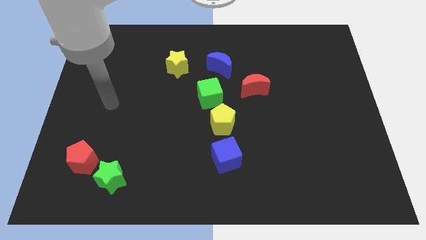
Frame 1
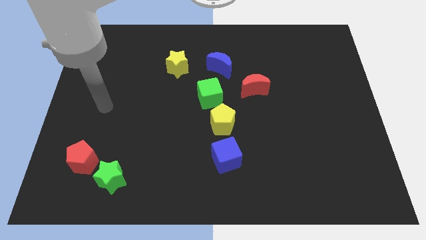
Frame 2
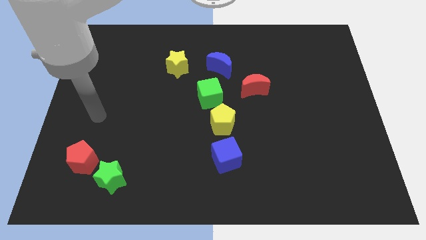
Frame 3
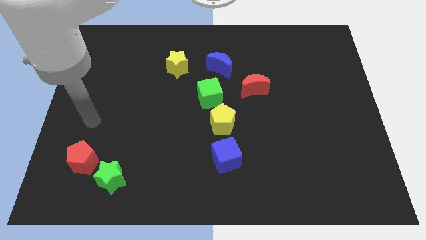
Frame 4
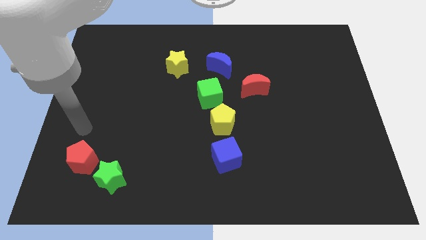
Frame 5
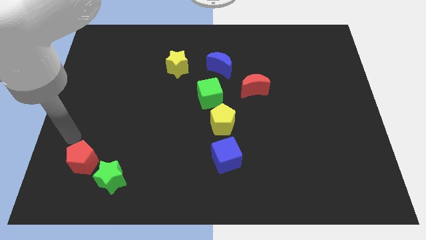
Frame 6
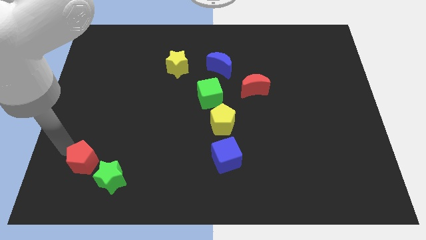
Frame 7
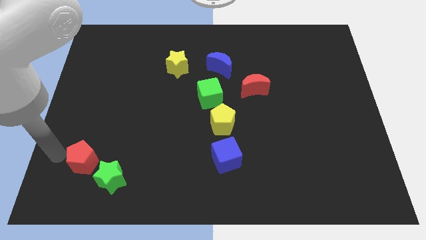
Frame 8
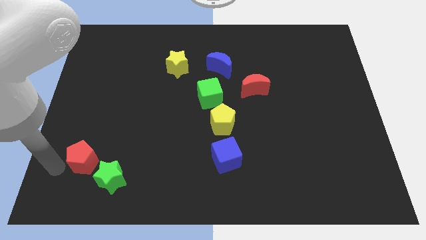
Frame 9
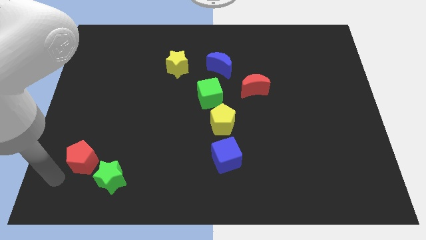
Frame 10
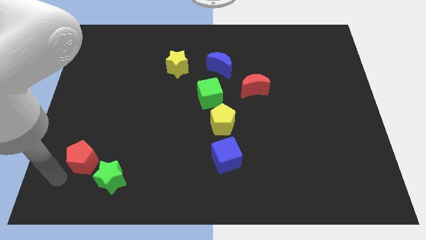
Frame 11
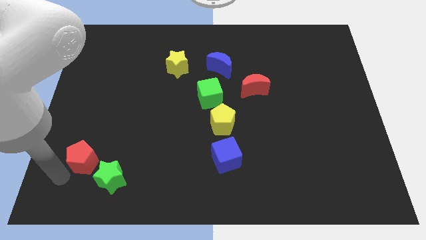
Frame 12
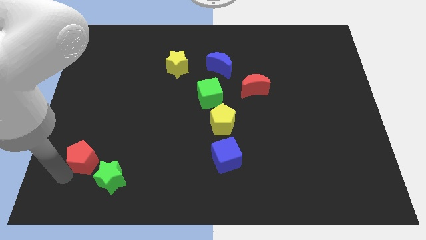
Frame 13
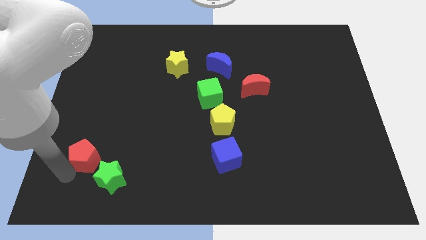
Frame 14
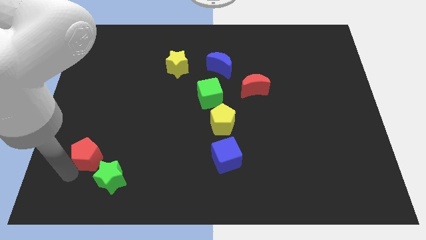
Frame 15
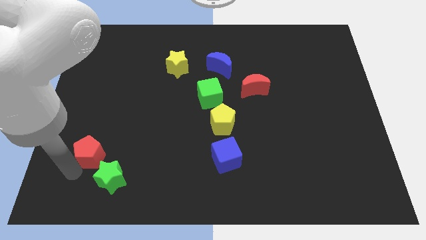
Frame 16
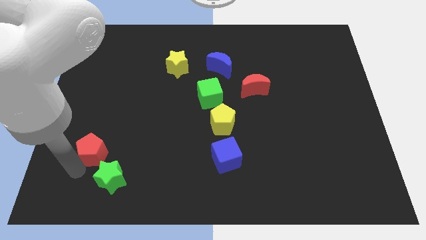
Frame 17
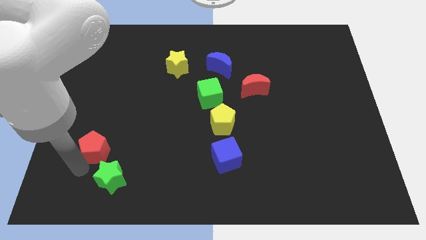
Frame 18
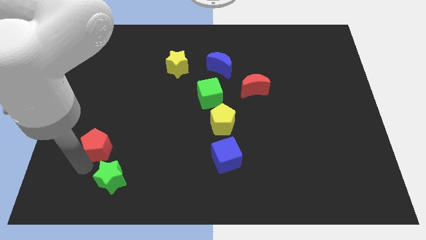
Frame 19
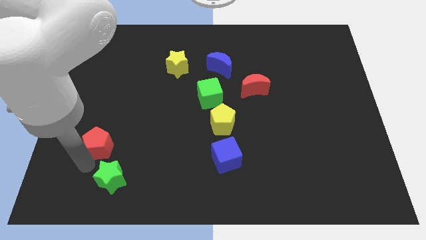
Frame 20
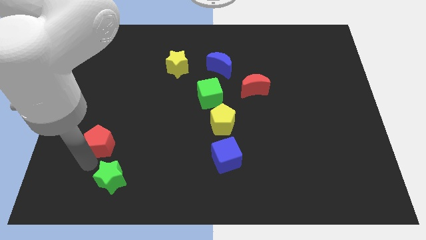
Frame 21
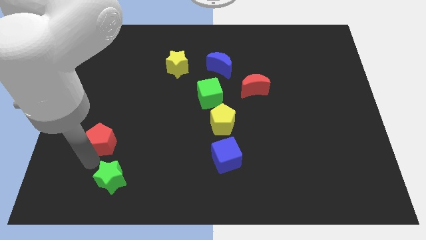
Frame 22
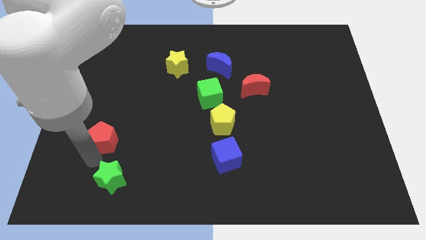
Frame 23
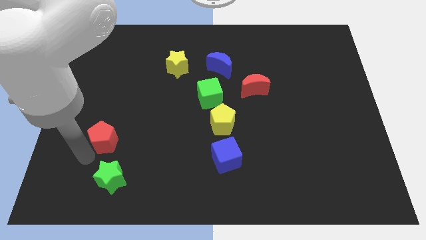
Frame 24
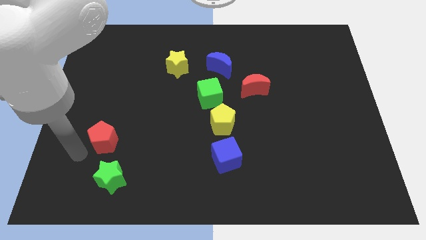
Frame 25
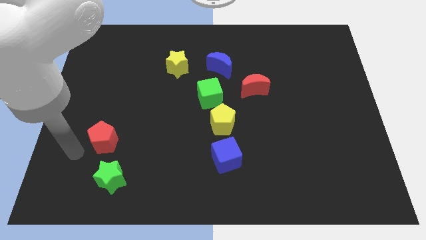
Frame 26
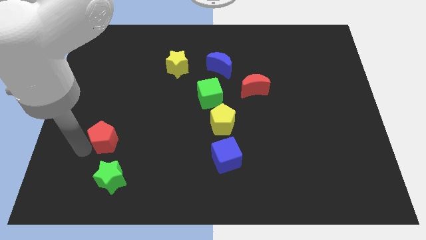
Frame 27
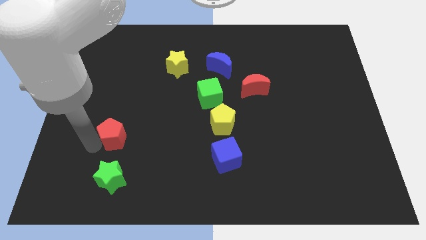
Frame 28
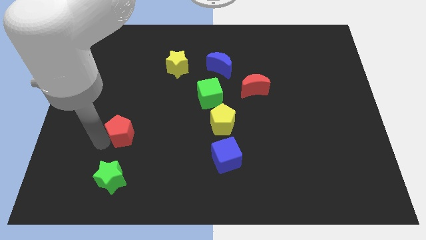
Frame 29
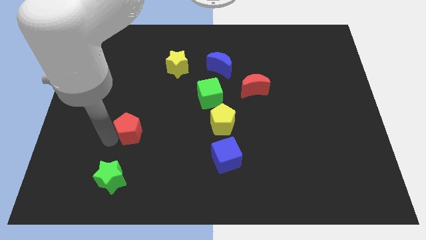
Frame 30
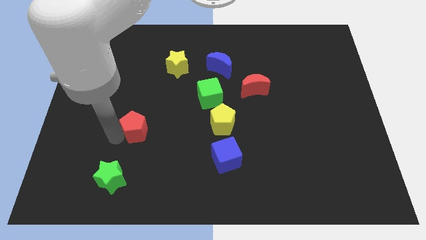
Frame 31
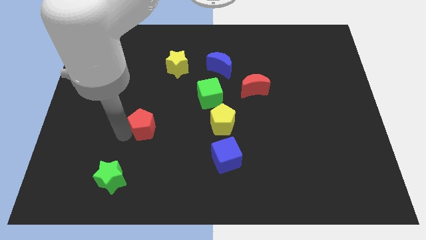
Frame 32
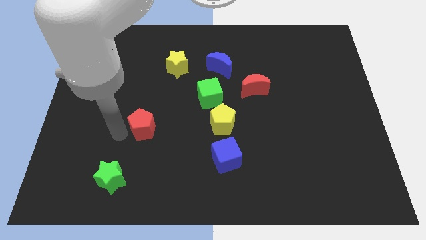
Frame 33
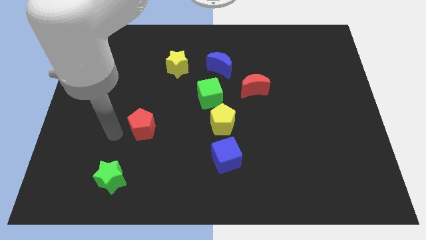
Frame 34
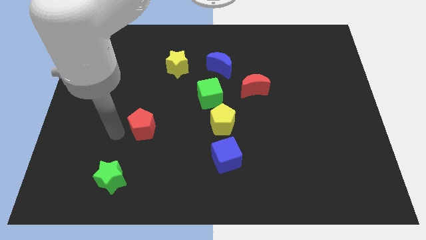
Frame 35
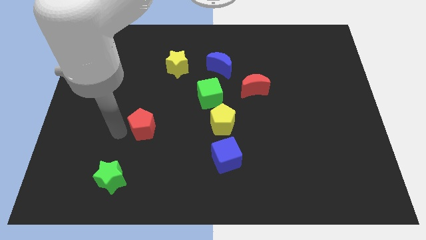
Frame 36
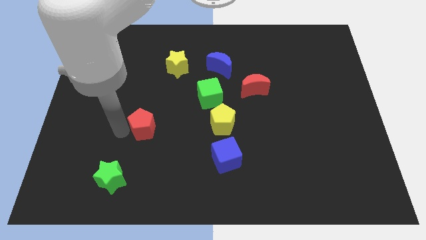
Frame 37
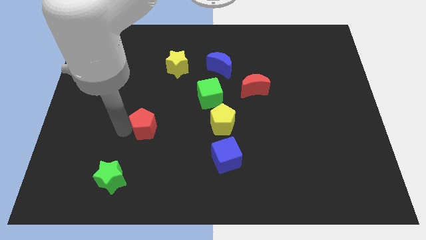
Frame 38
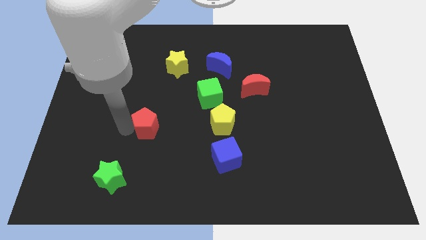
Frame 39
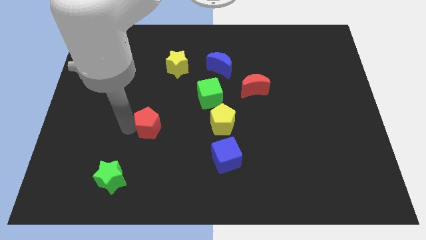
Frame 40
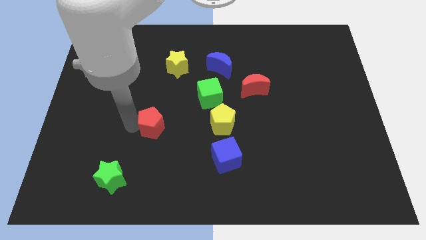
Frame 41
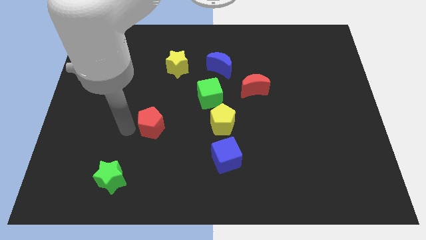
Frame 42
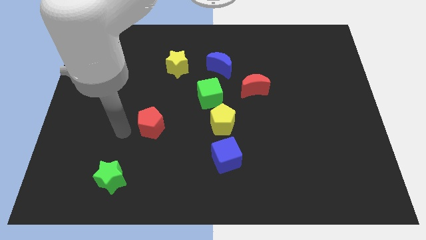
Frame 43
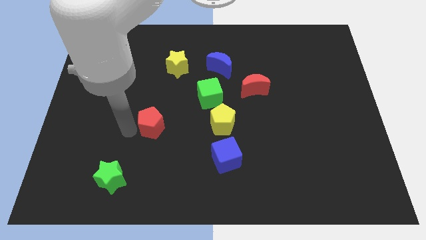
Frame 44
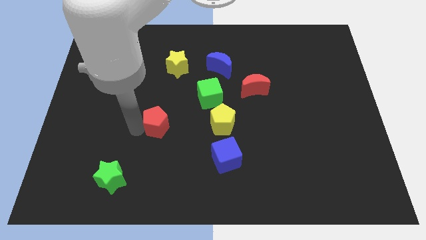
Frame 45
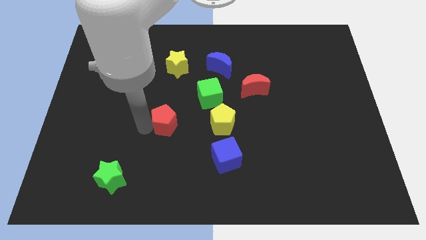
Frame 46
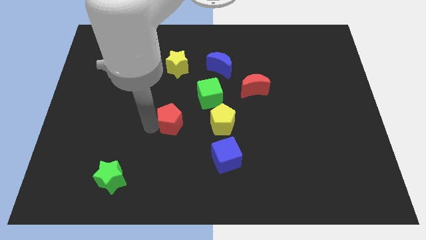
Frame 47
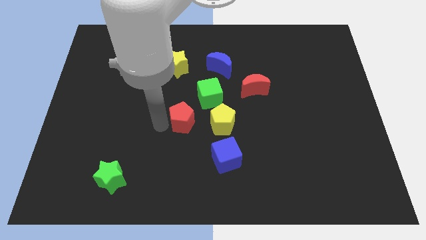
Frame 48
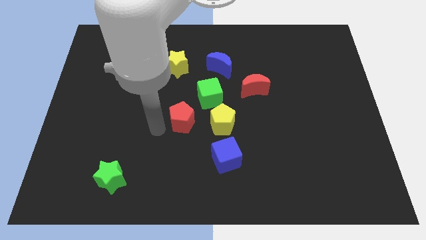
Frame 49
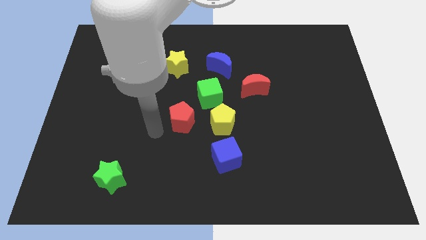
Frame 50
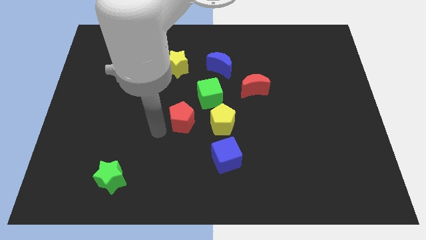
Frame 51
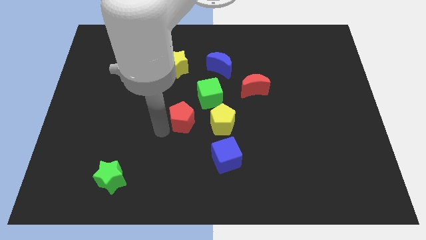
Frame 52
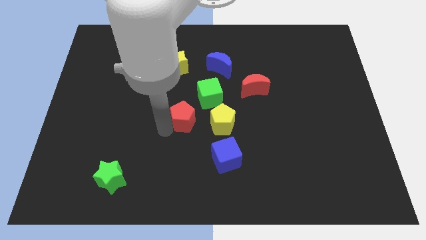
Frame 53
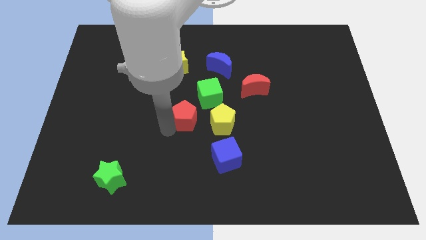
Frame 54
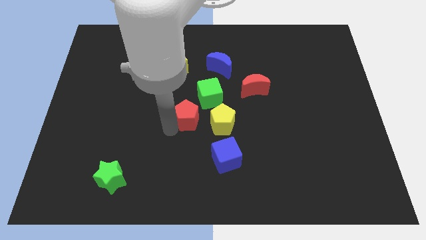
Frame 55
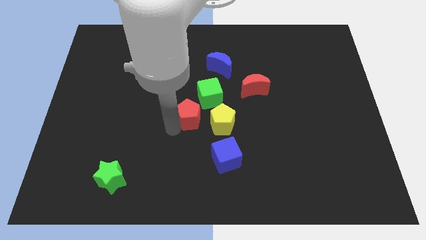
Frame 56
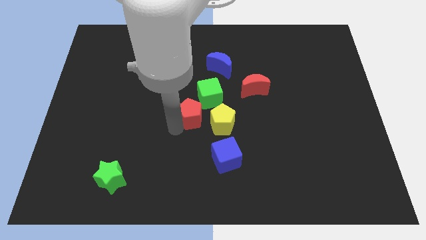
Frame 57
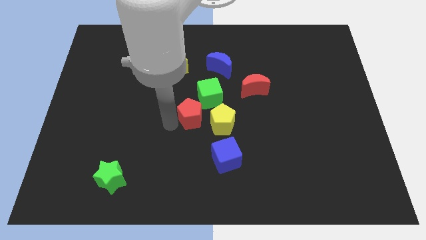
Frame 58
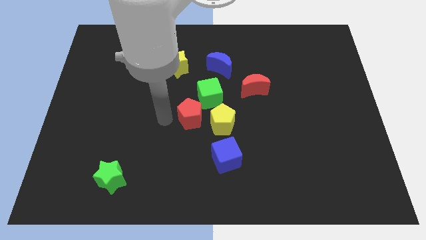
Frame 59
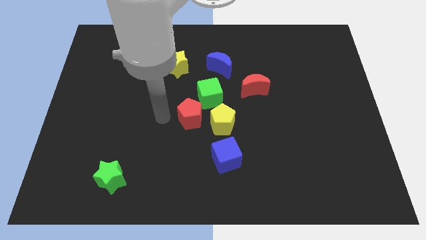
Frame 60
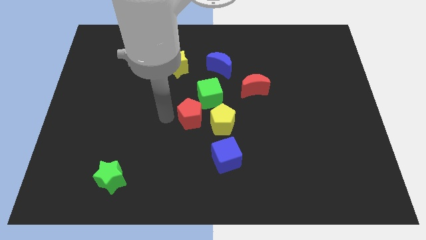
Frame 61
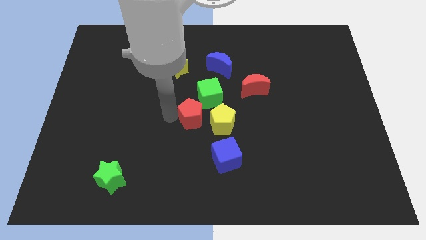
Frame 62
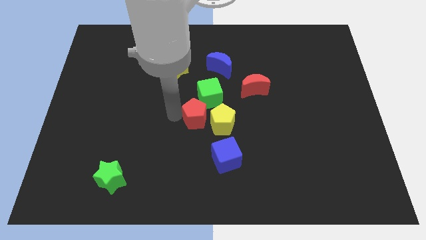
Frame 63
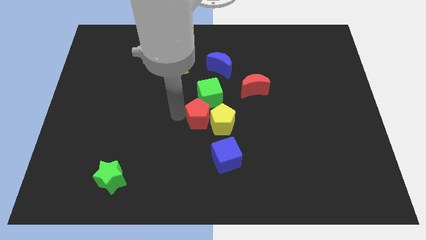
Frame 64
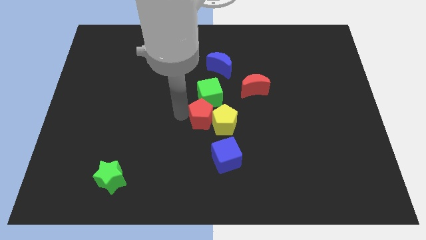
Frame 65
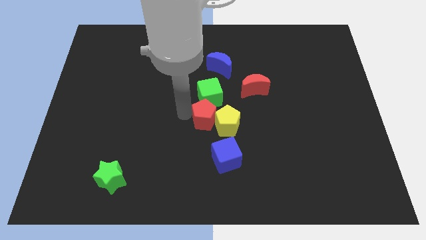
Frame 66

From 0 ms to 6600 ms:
move the red pentagon to the top of the blue cube
